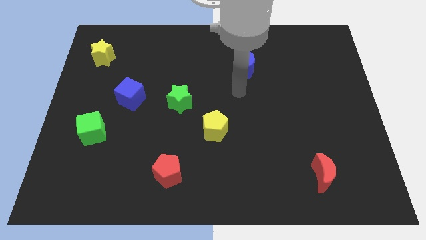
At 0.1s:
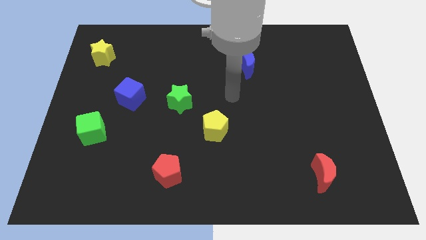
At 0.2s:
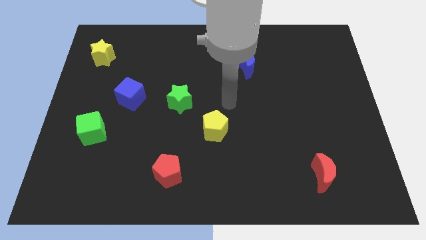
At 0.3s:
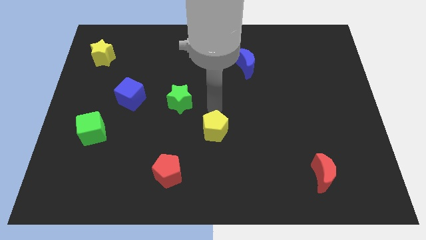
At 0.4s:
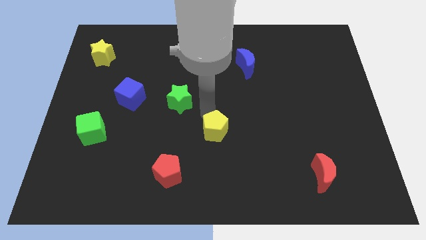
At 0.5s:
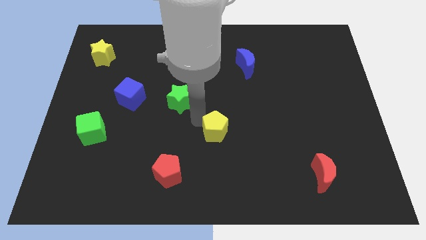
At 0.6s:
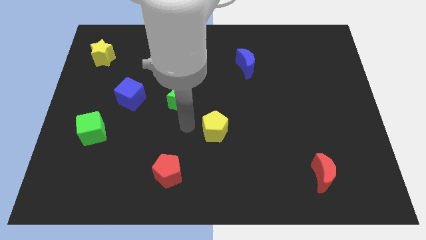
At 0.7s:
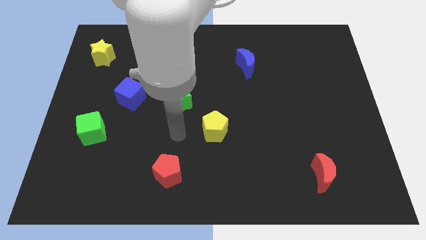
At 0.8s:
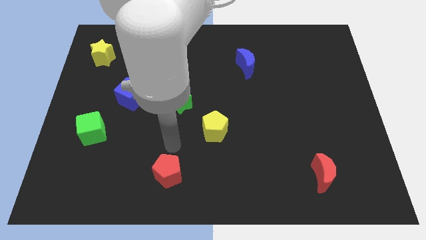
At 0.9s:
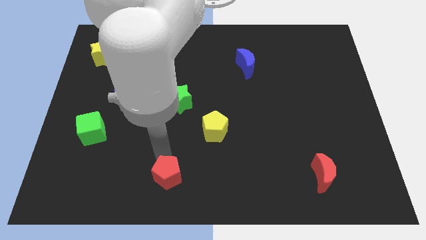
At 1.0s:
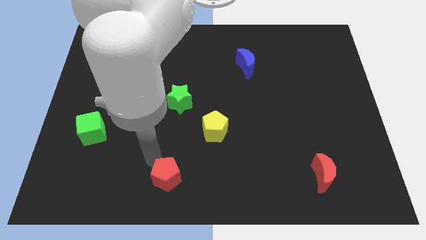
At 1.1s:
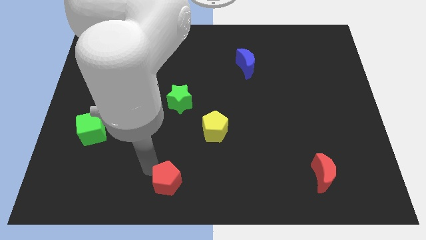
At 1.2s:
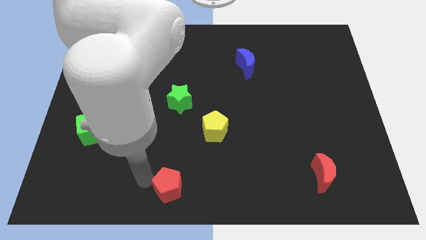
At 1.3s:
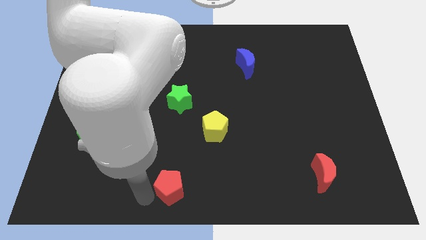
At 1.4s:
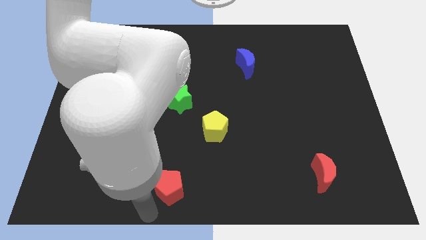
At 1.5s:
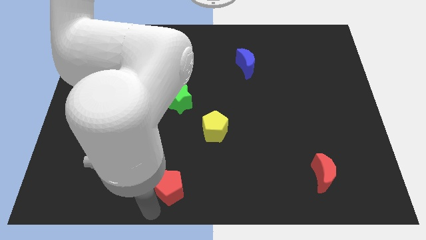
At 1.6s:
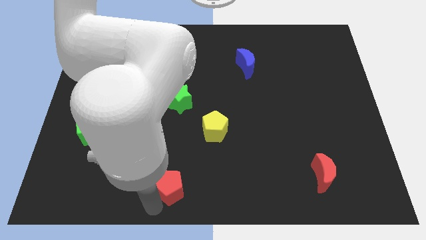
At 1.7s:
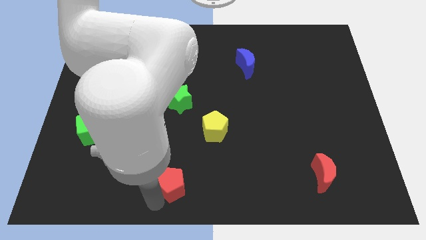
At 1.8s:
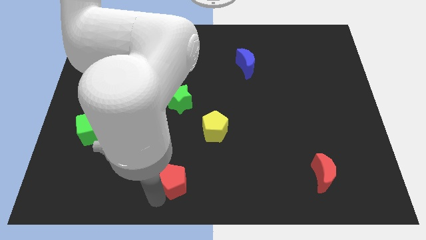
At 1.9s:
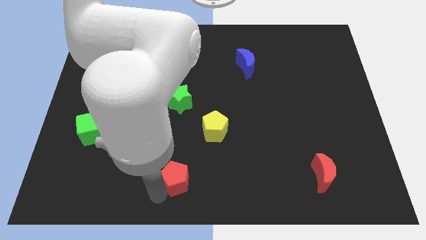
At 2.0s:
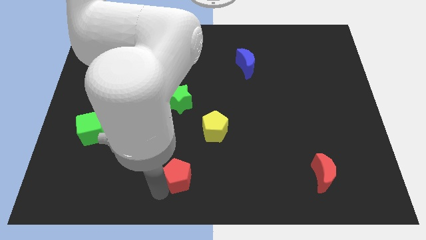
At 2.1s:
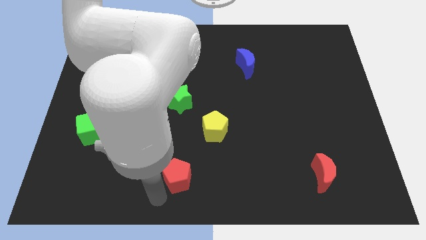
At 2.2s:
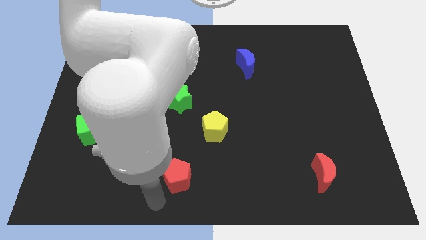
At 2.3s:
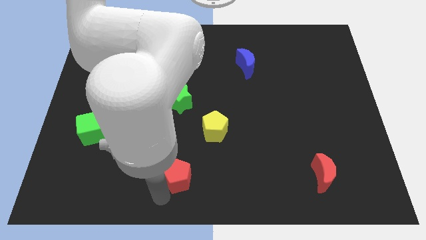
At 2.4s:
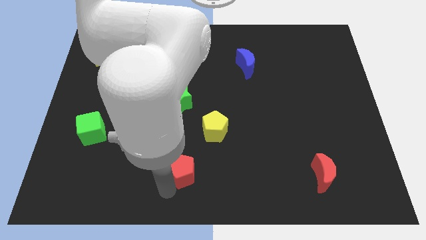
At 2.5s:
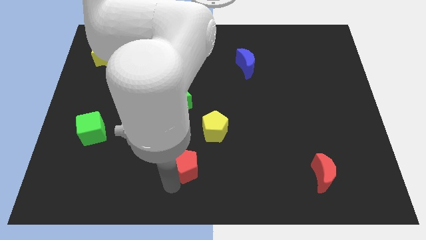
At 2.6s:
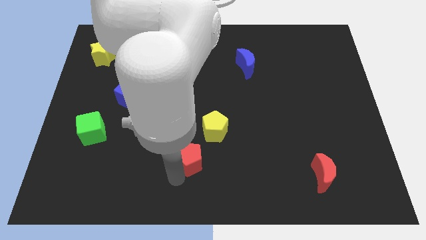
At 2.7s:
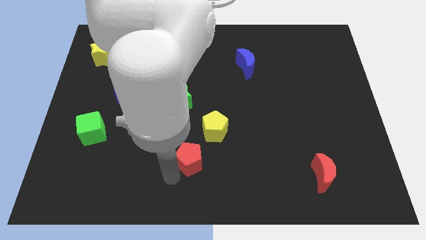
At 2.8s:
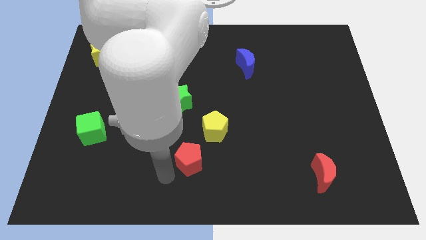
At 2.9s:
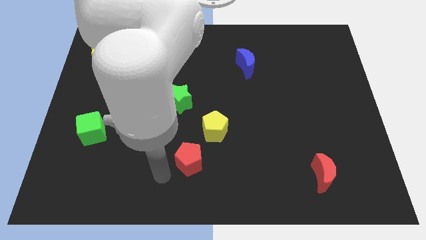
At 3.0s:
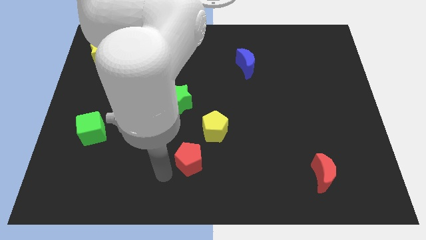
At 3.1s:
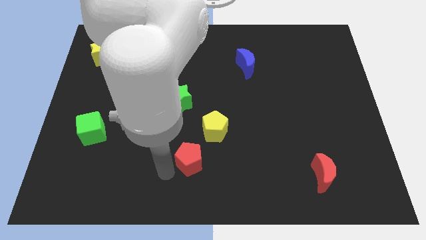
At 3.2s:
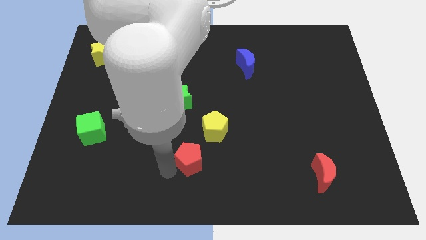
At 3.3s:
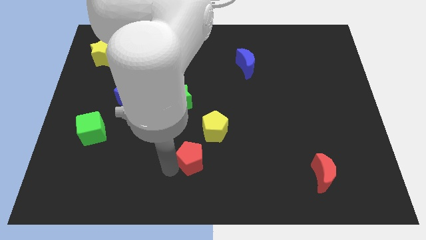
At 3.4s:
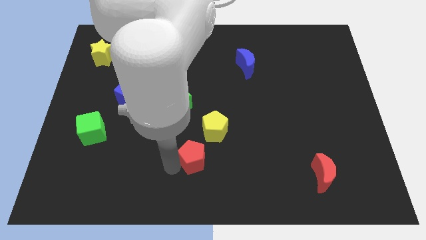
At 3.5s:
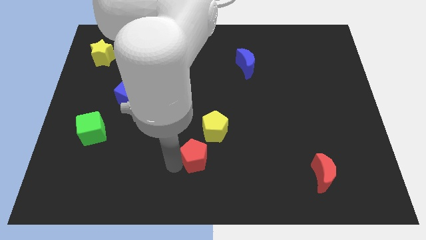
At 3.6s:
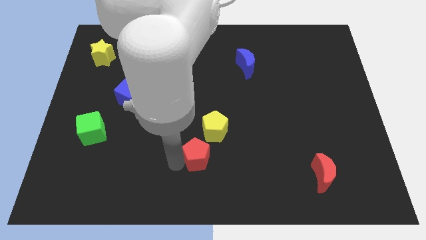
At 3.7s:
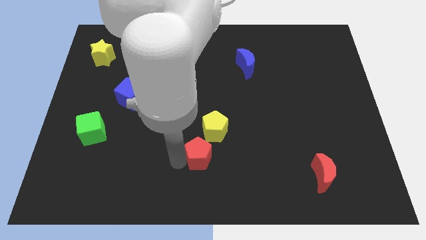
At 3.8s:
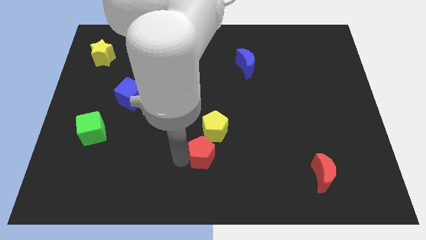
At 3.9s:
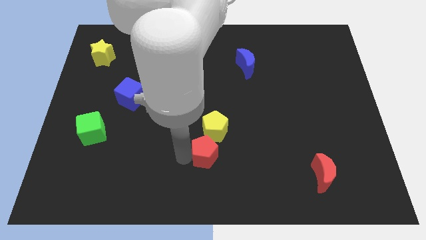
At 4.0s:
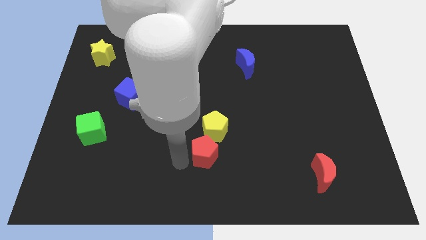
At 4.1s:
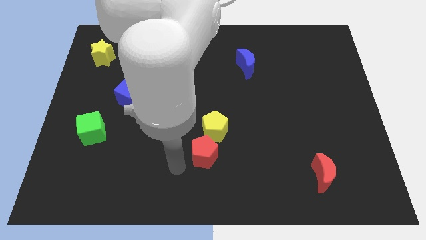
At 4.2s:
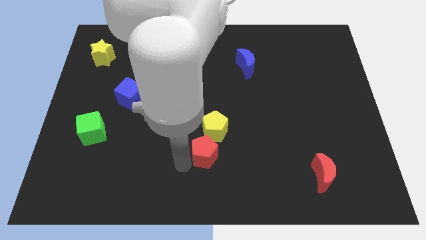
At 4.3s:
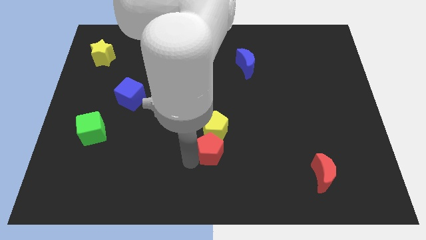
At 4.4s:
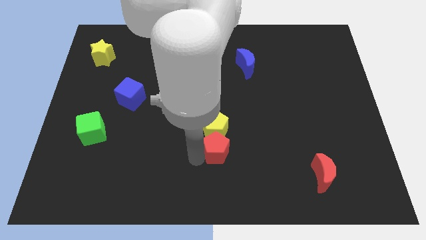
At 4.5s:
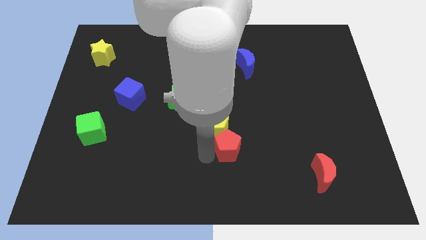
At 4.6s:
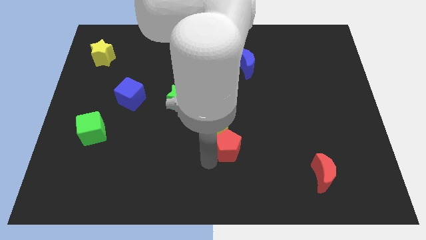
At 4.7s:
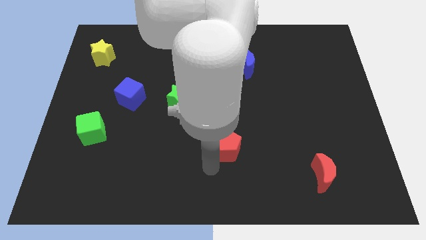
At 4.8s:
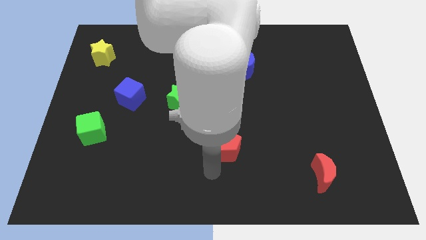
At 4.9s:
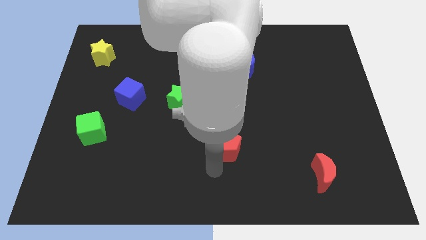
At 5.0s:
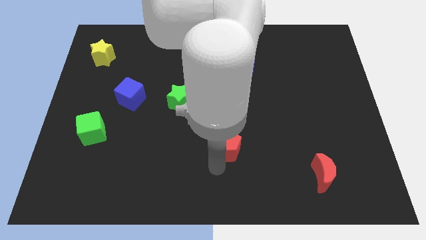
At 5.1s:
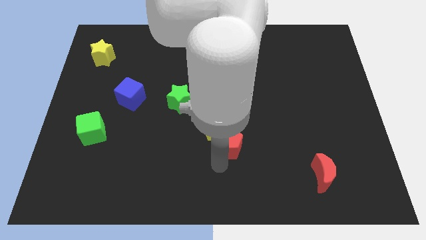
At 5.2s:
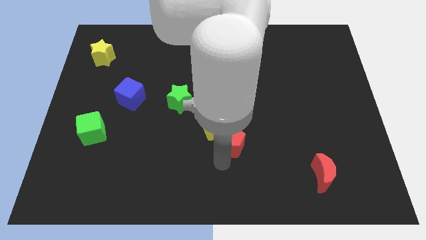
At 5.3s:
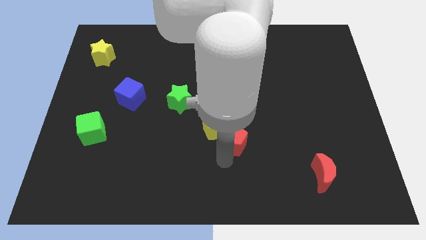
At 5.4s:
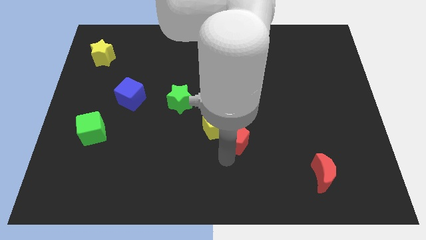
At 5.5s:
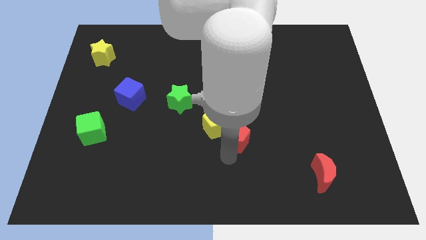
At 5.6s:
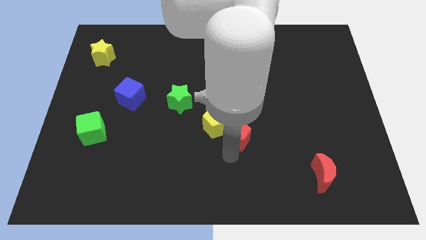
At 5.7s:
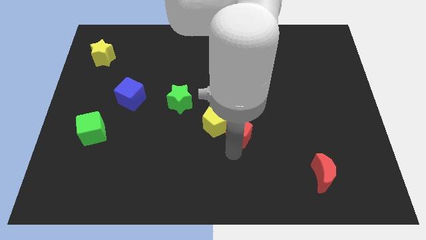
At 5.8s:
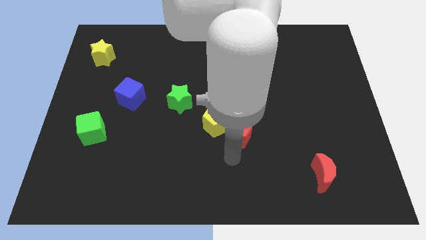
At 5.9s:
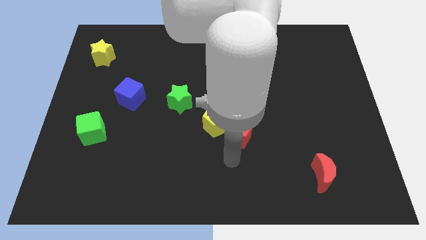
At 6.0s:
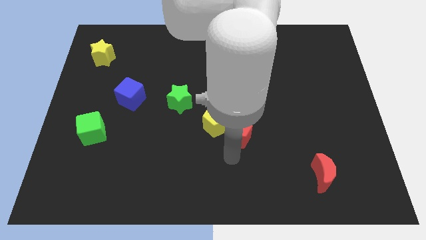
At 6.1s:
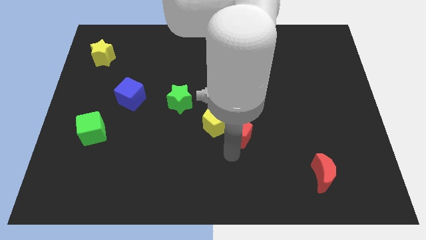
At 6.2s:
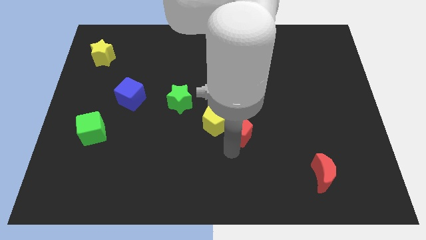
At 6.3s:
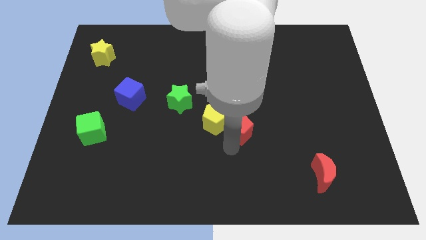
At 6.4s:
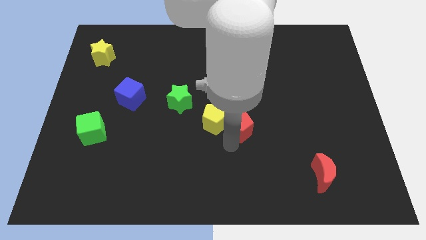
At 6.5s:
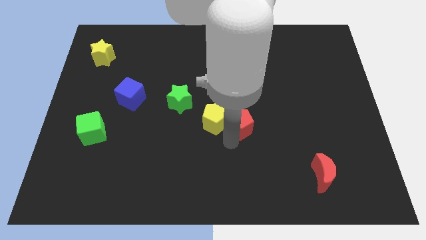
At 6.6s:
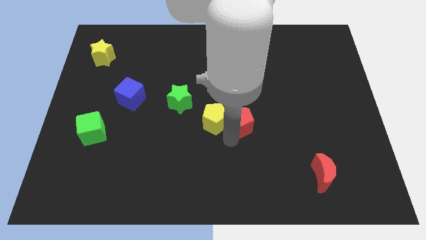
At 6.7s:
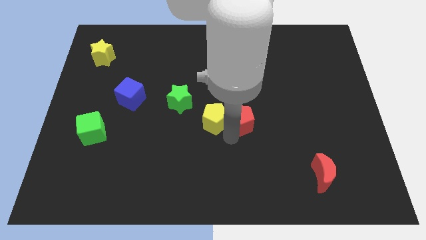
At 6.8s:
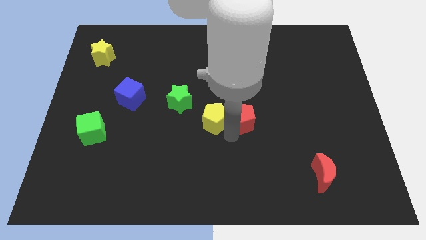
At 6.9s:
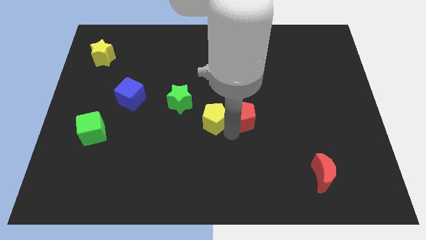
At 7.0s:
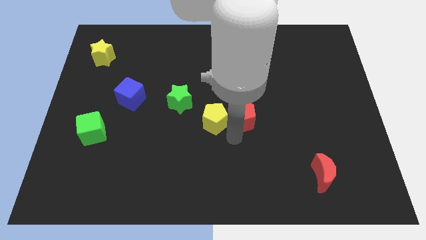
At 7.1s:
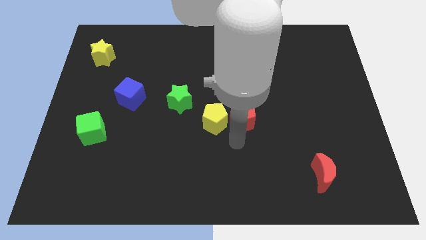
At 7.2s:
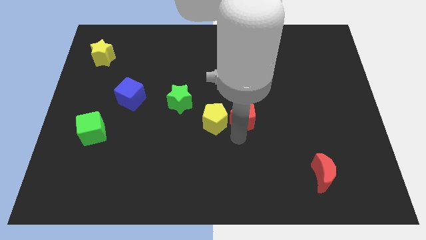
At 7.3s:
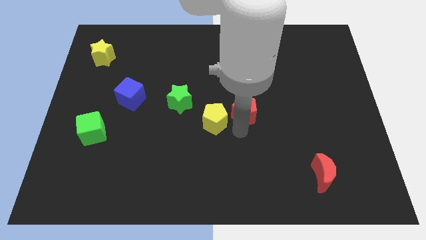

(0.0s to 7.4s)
move the red pentagon to the bottom of the blue moon

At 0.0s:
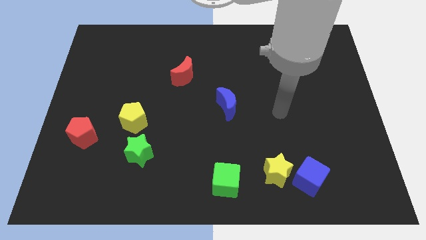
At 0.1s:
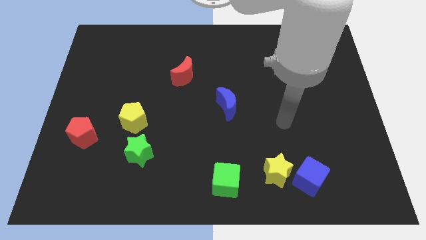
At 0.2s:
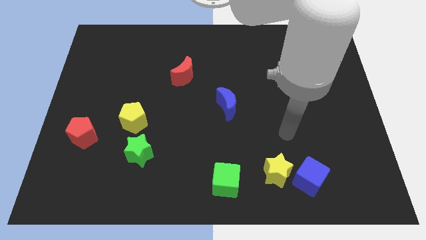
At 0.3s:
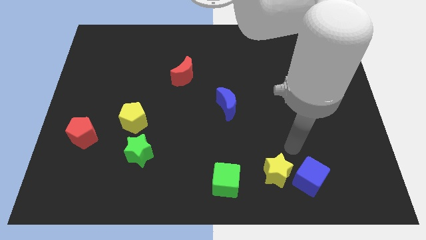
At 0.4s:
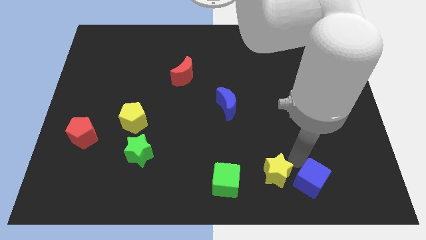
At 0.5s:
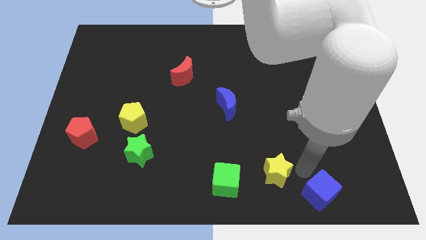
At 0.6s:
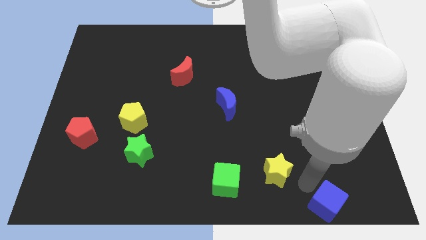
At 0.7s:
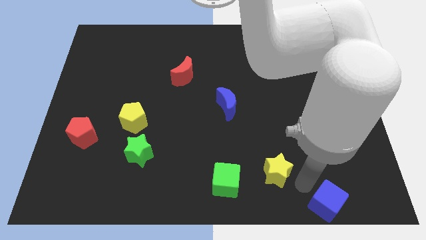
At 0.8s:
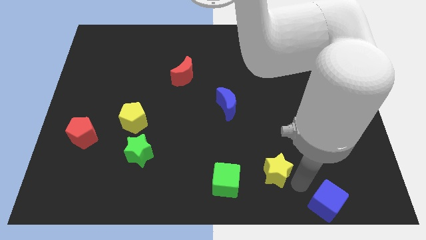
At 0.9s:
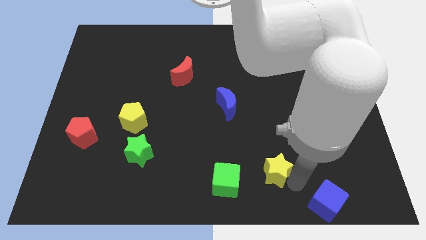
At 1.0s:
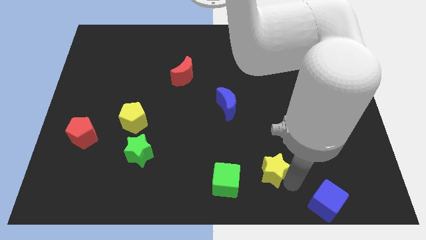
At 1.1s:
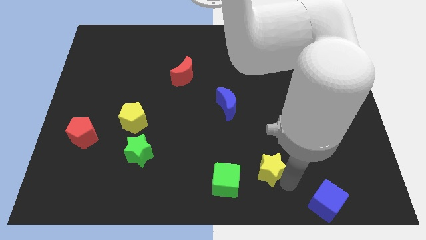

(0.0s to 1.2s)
move the yellow star diagonally up and to the right of the green cube
